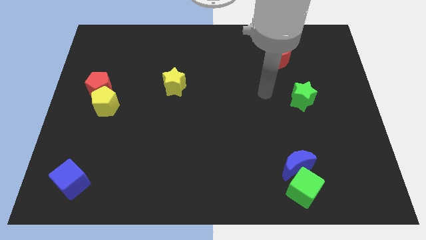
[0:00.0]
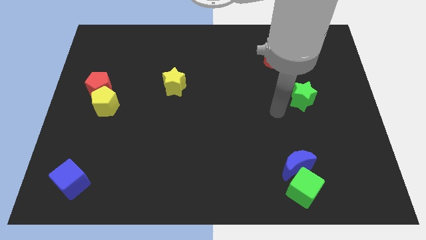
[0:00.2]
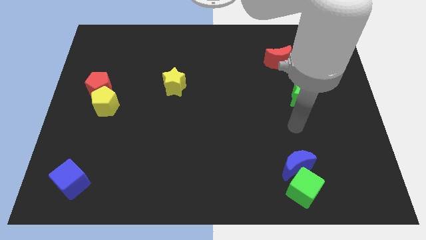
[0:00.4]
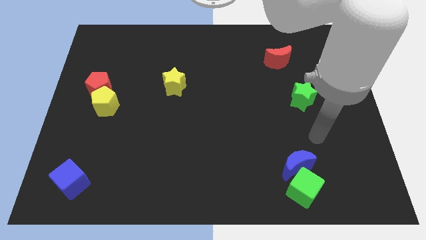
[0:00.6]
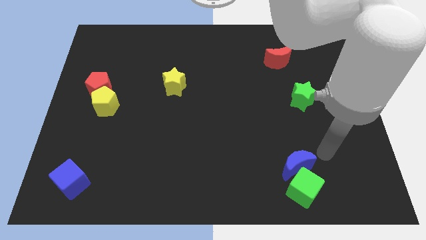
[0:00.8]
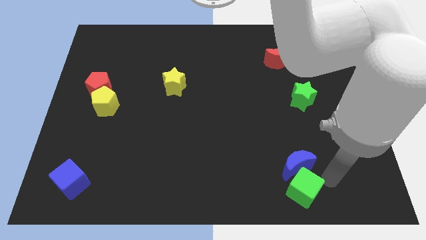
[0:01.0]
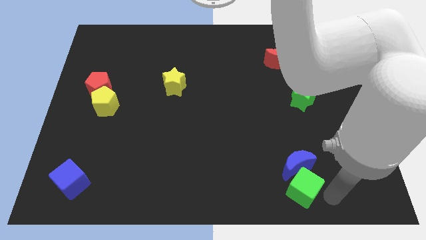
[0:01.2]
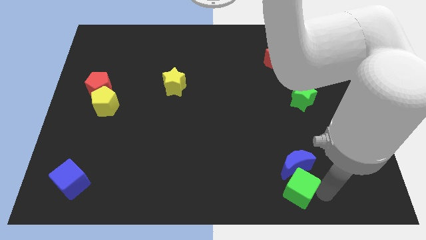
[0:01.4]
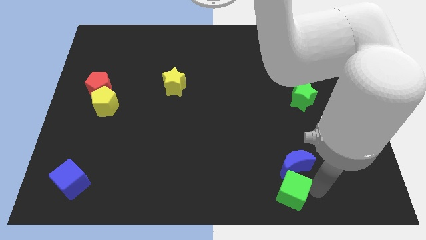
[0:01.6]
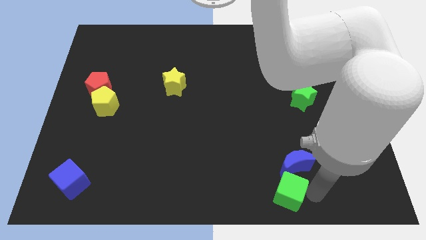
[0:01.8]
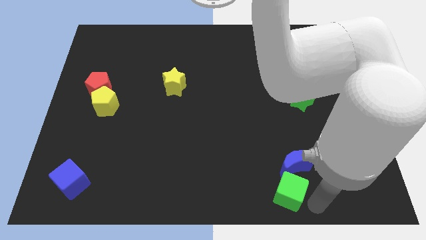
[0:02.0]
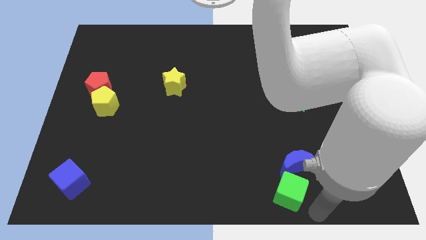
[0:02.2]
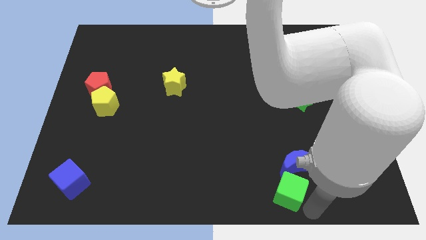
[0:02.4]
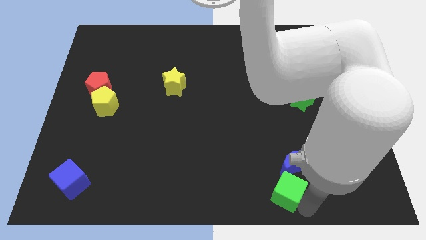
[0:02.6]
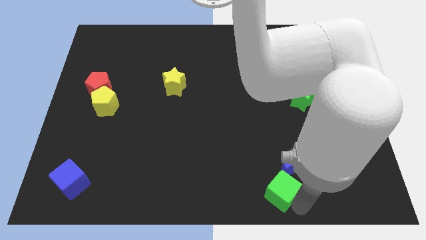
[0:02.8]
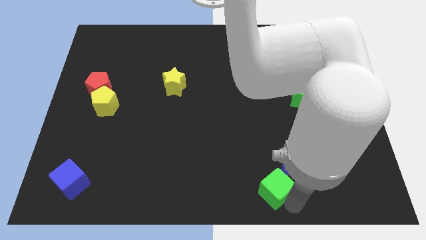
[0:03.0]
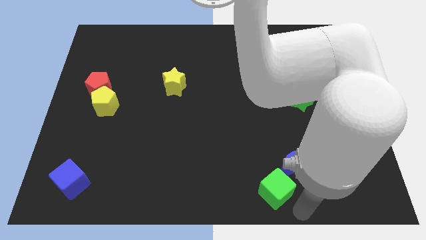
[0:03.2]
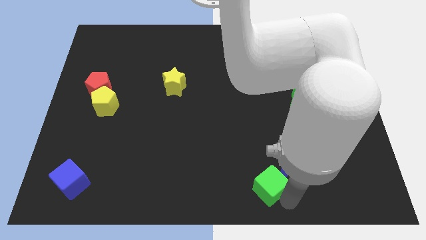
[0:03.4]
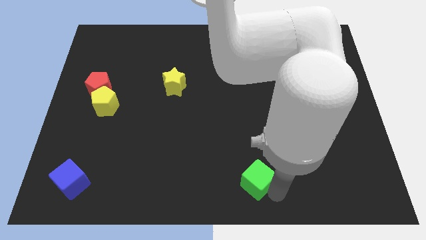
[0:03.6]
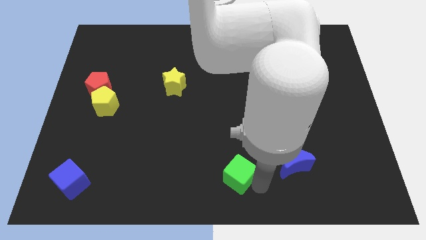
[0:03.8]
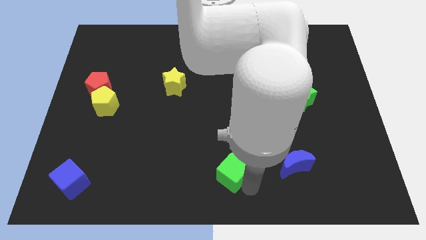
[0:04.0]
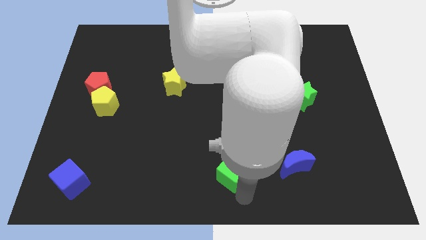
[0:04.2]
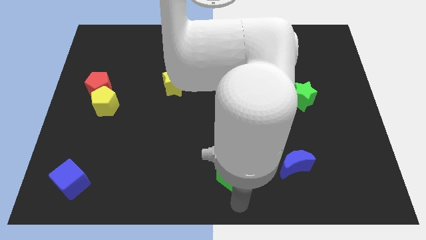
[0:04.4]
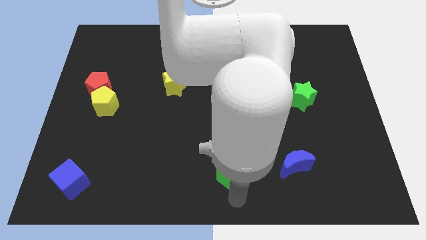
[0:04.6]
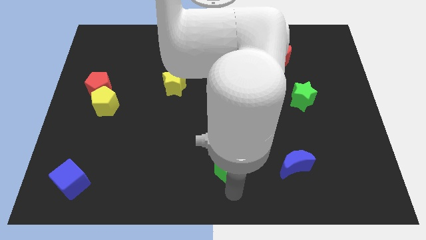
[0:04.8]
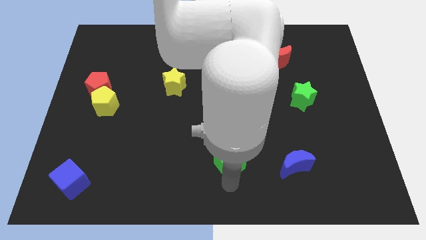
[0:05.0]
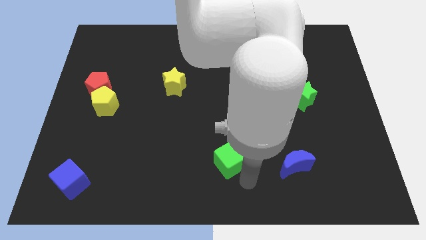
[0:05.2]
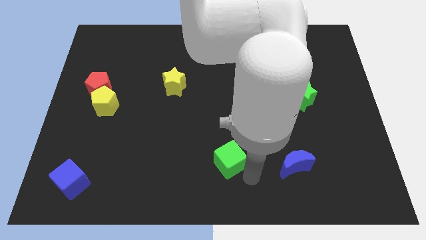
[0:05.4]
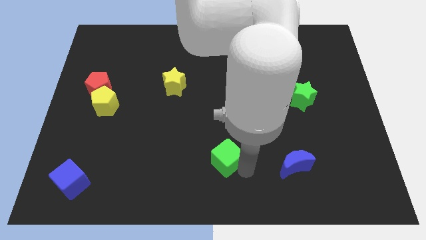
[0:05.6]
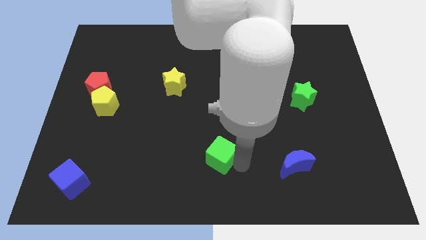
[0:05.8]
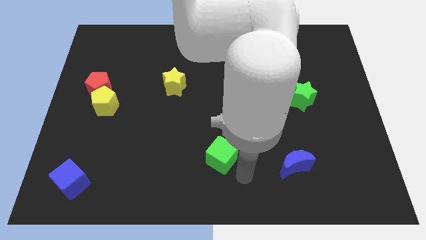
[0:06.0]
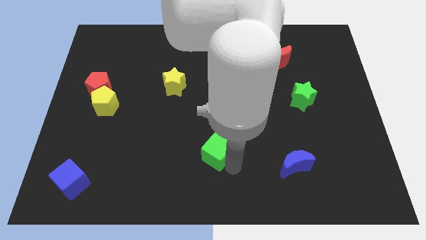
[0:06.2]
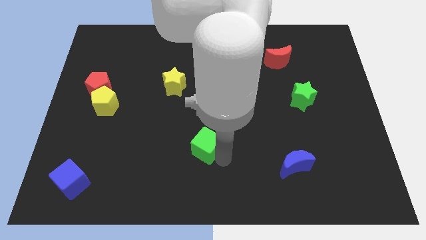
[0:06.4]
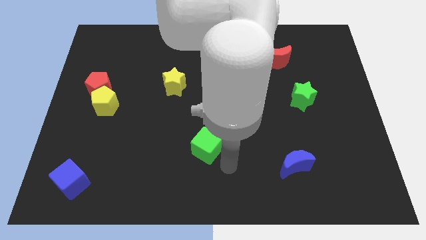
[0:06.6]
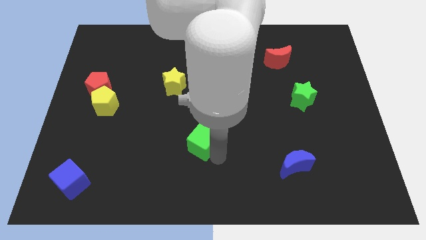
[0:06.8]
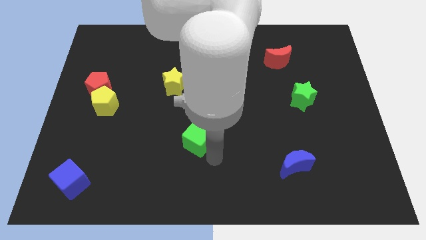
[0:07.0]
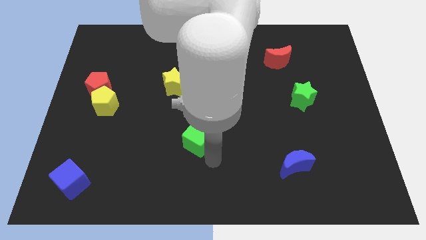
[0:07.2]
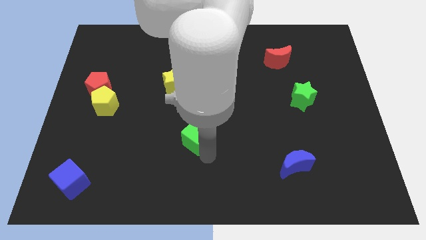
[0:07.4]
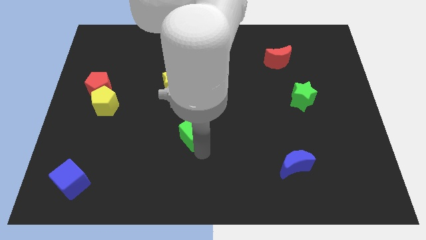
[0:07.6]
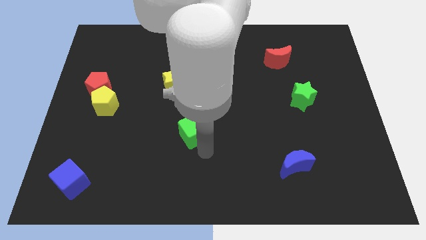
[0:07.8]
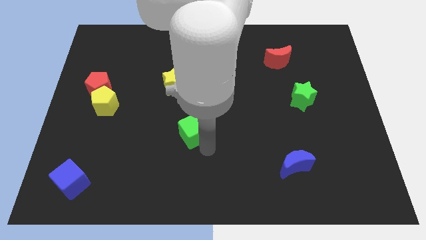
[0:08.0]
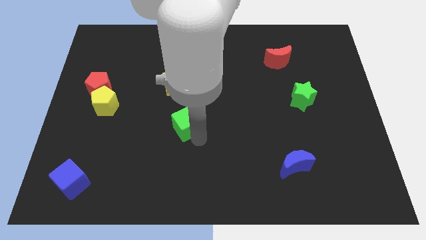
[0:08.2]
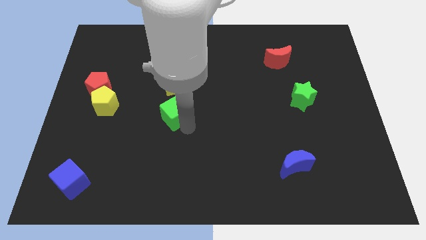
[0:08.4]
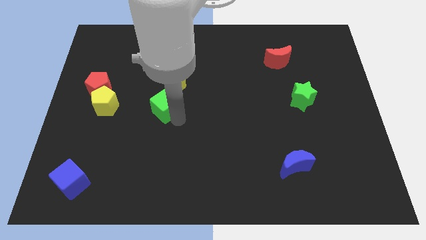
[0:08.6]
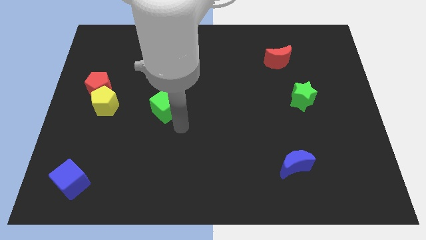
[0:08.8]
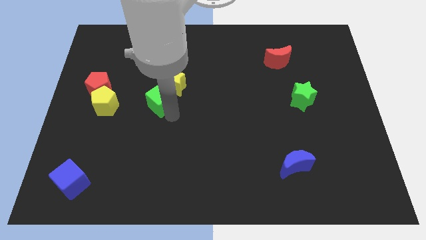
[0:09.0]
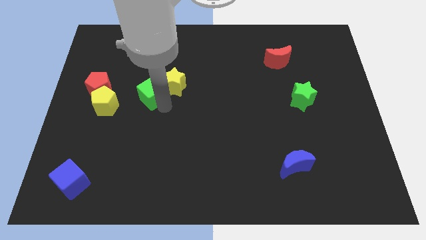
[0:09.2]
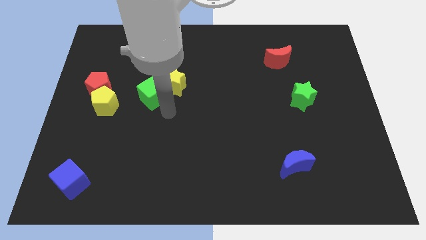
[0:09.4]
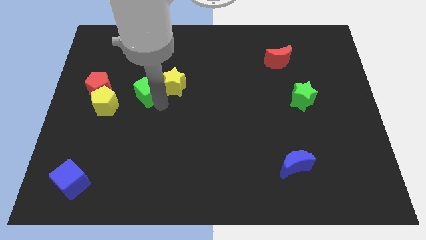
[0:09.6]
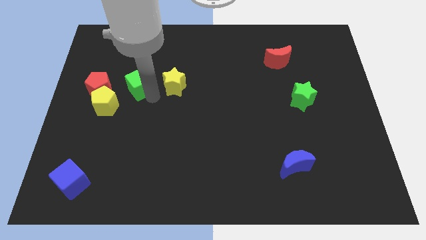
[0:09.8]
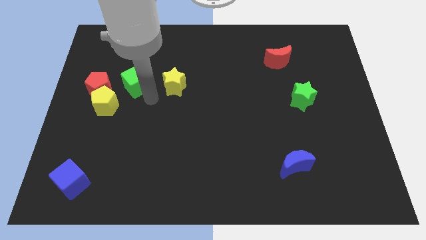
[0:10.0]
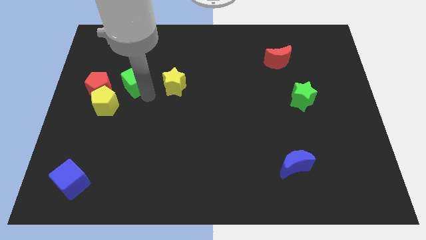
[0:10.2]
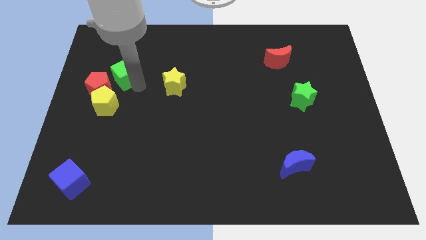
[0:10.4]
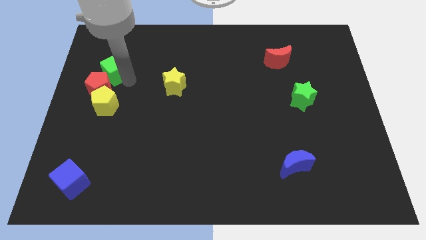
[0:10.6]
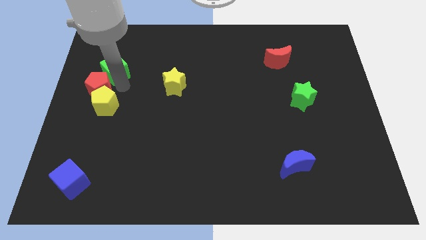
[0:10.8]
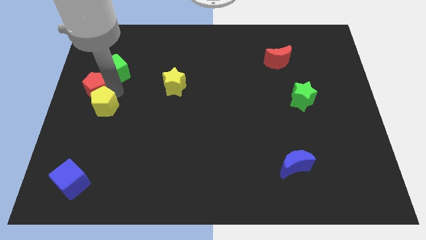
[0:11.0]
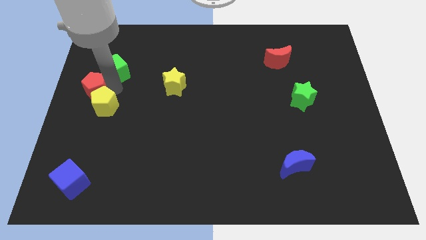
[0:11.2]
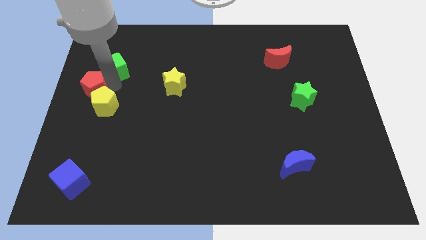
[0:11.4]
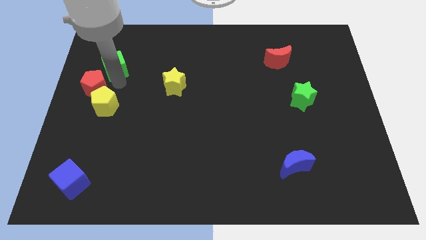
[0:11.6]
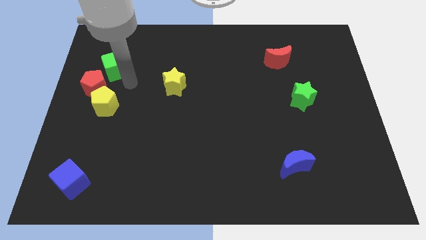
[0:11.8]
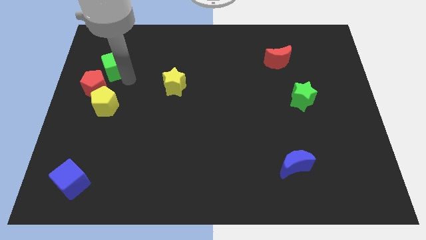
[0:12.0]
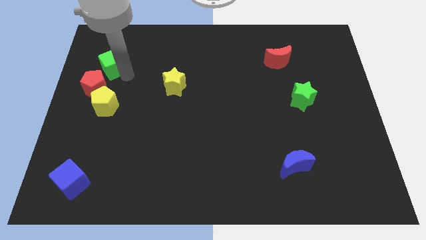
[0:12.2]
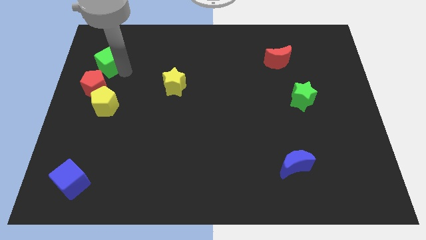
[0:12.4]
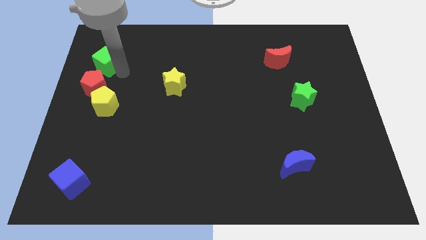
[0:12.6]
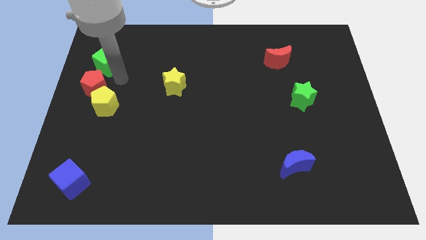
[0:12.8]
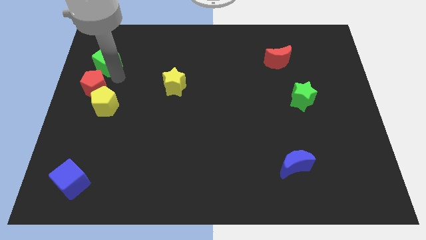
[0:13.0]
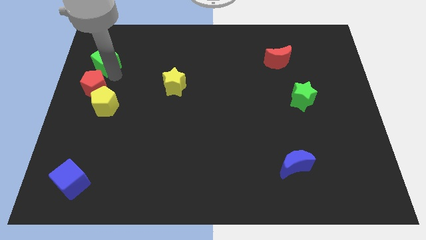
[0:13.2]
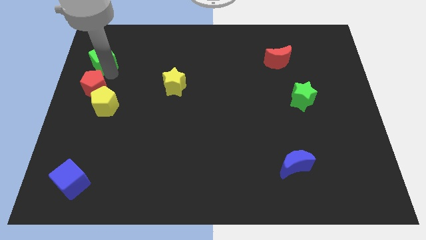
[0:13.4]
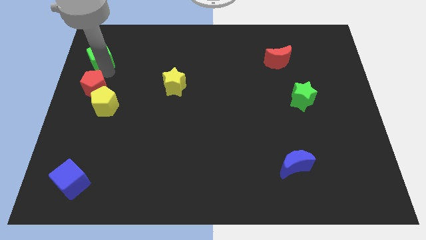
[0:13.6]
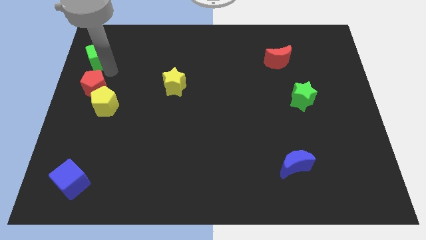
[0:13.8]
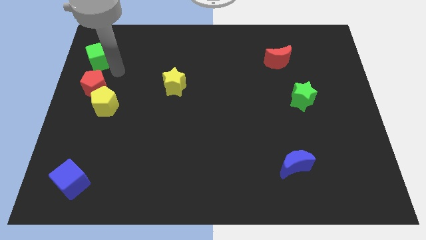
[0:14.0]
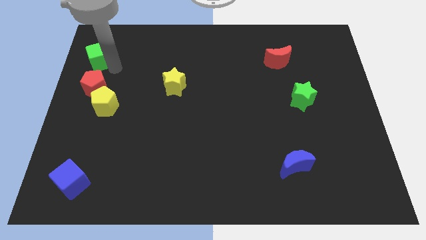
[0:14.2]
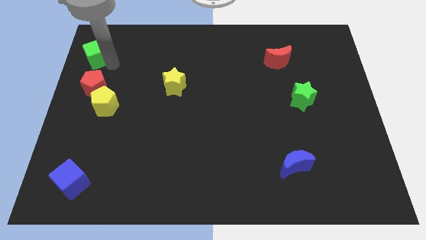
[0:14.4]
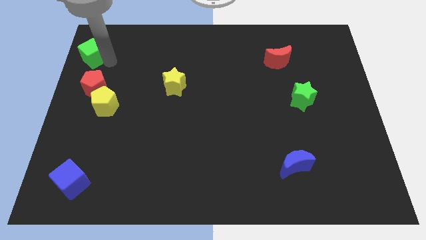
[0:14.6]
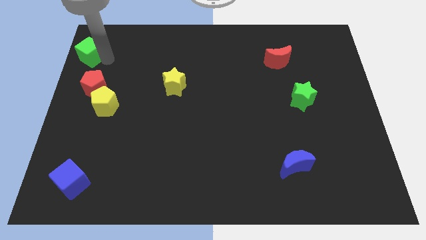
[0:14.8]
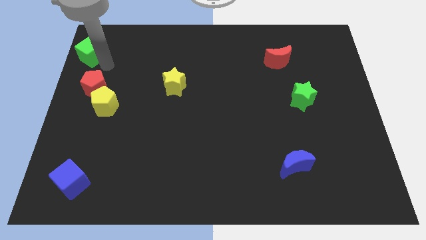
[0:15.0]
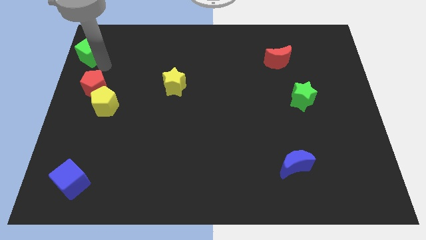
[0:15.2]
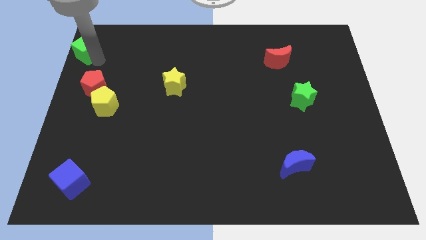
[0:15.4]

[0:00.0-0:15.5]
move the green cube to the upper left corner
